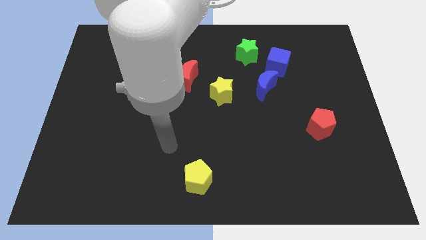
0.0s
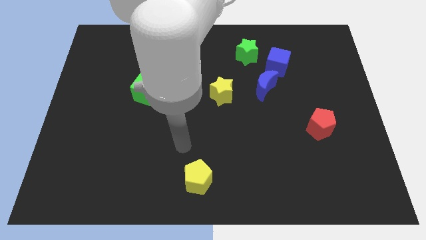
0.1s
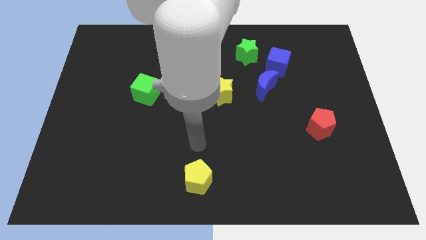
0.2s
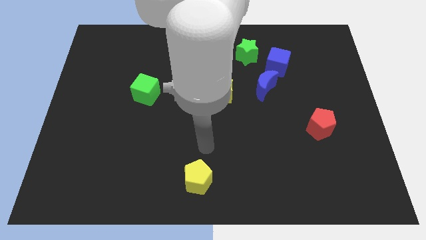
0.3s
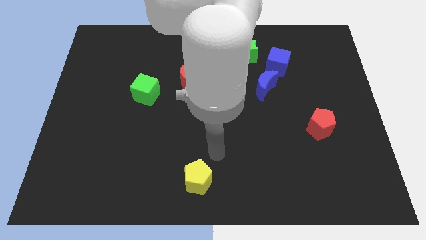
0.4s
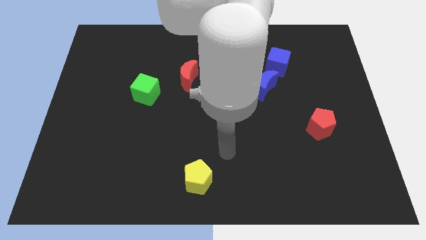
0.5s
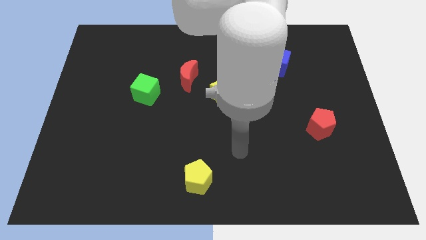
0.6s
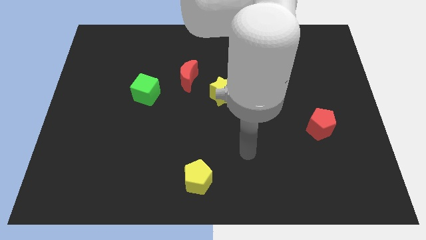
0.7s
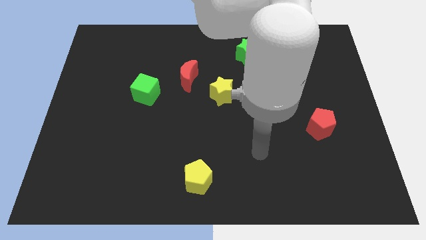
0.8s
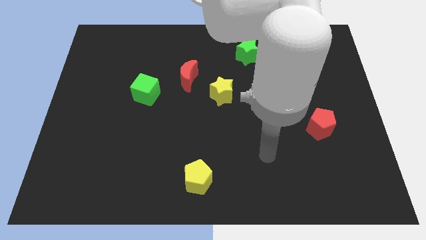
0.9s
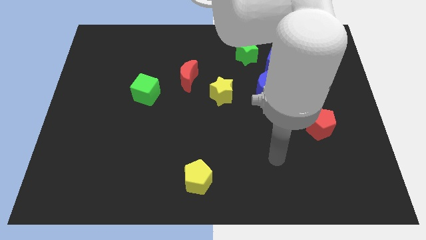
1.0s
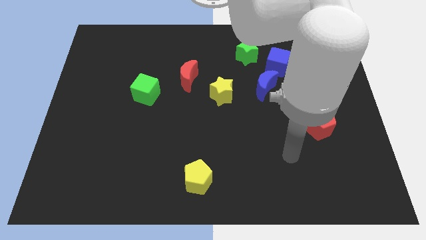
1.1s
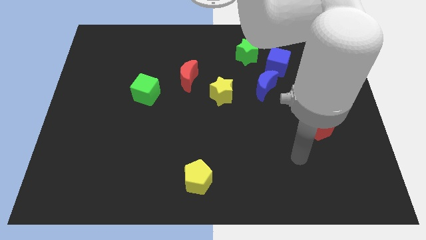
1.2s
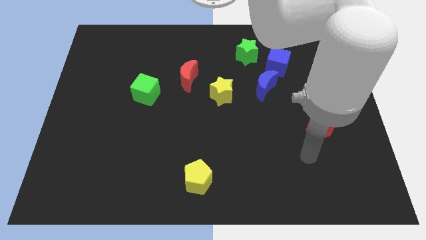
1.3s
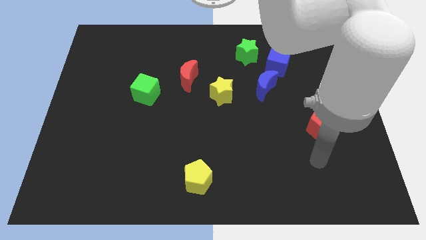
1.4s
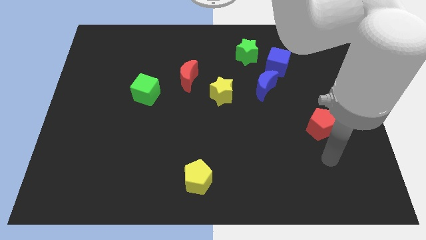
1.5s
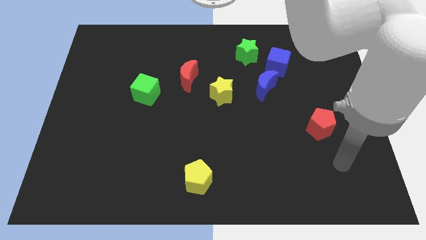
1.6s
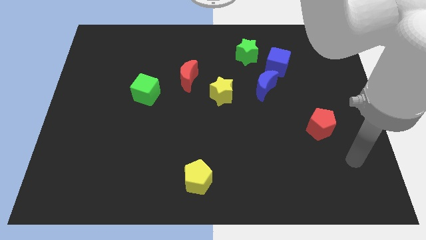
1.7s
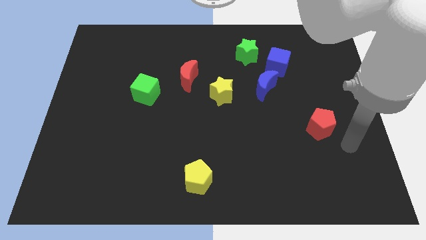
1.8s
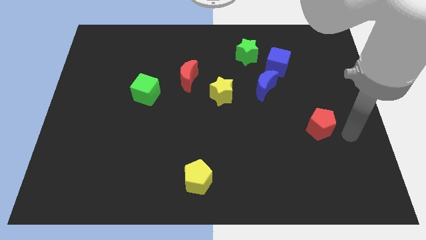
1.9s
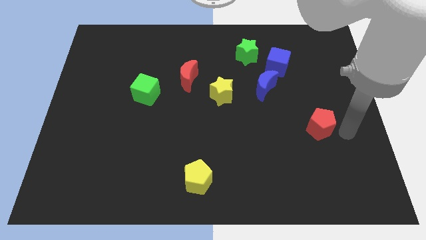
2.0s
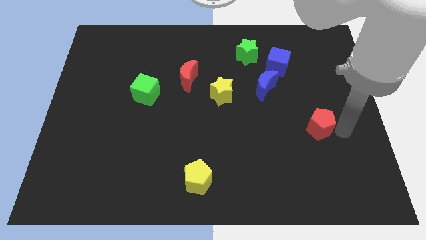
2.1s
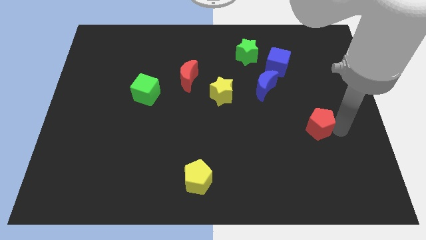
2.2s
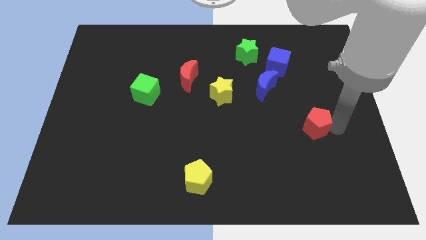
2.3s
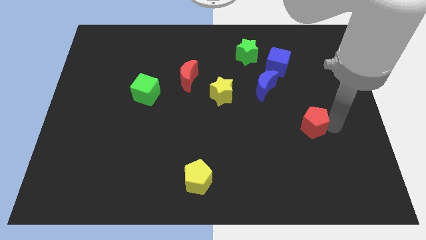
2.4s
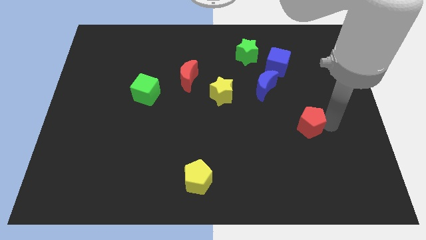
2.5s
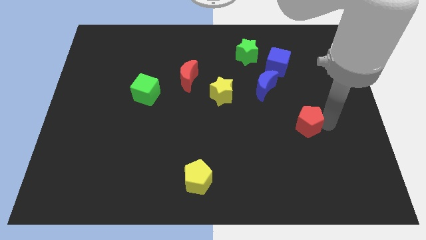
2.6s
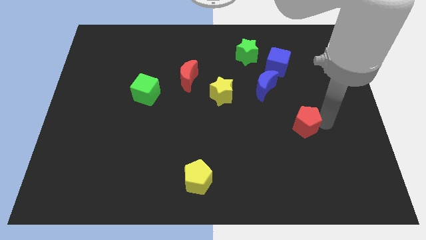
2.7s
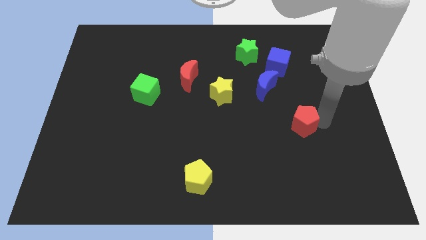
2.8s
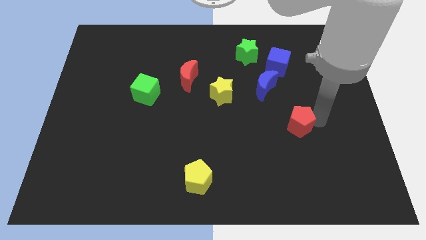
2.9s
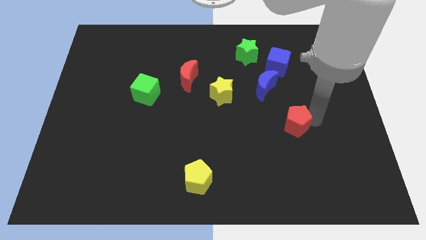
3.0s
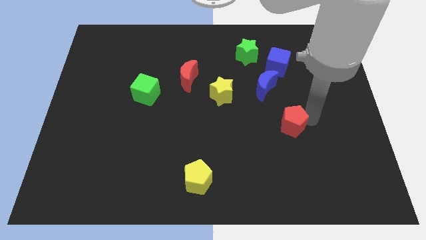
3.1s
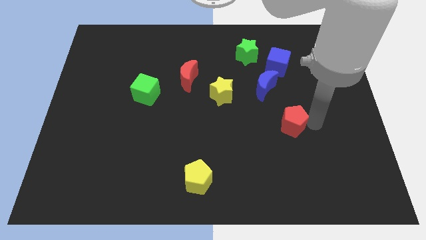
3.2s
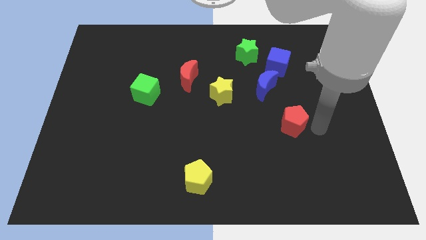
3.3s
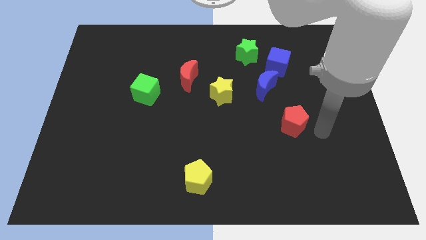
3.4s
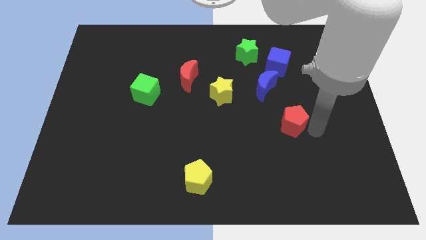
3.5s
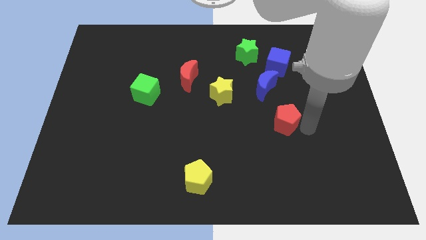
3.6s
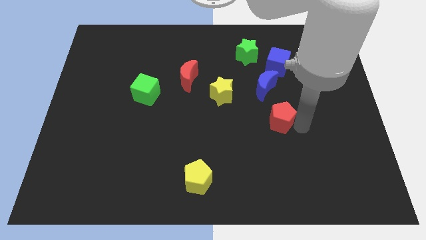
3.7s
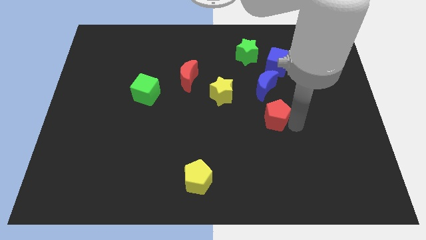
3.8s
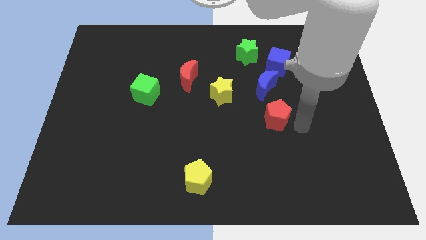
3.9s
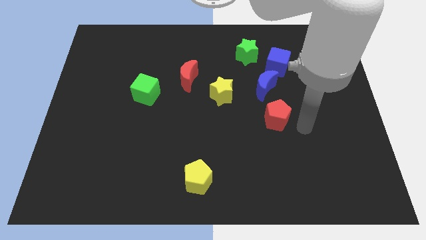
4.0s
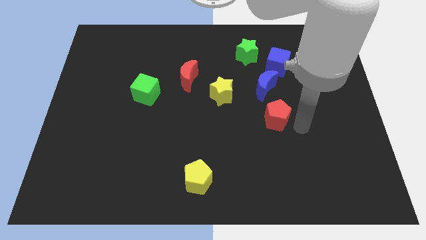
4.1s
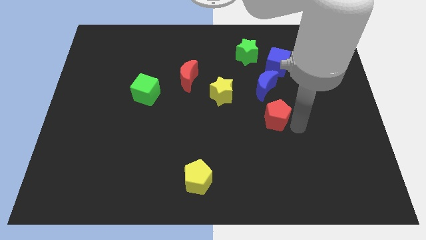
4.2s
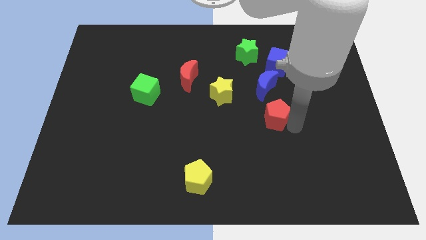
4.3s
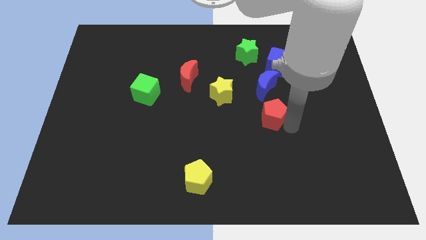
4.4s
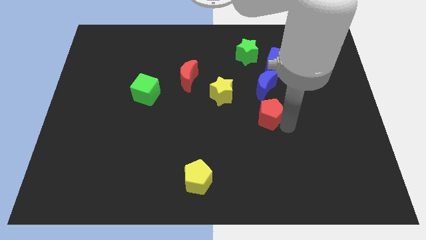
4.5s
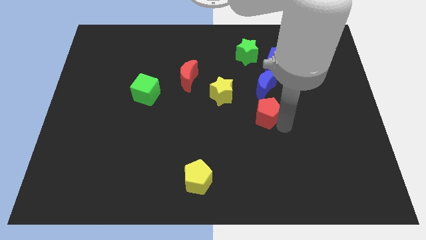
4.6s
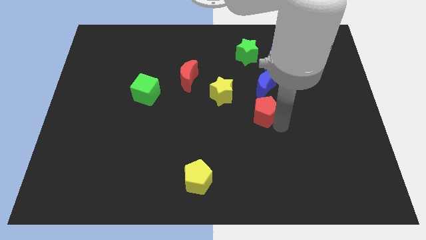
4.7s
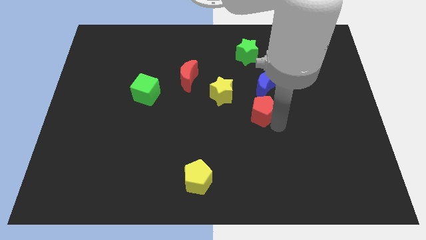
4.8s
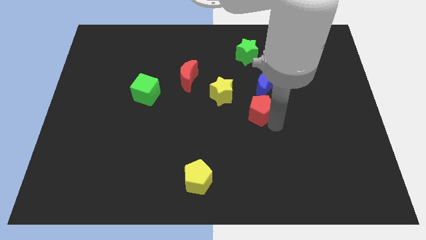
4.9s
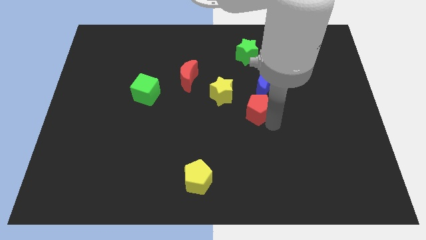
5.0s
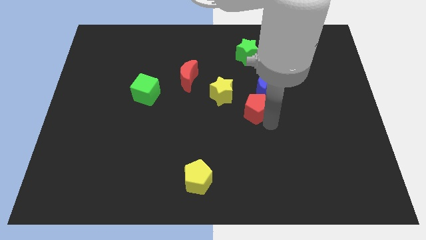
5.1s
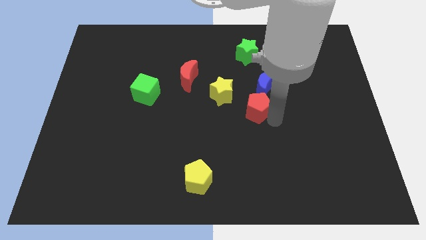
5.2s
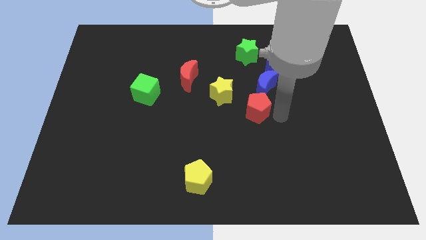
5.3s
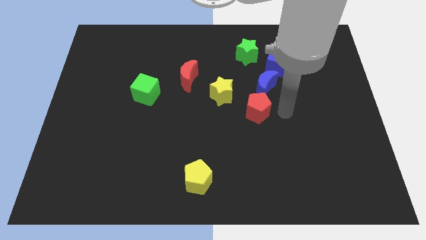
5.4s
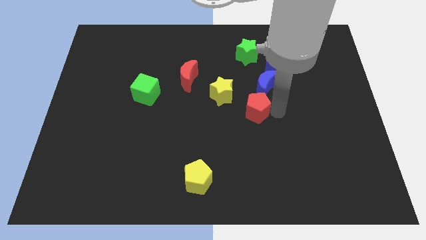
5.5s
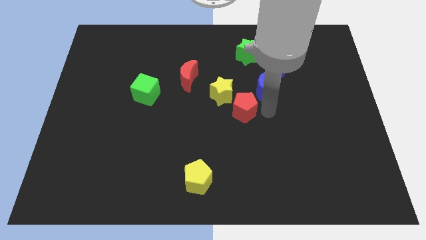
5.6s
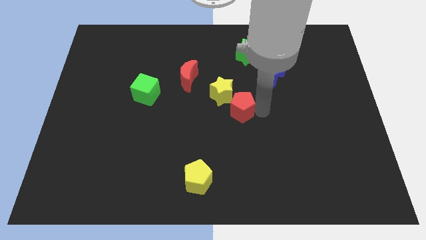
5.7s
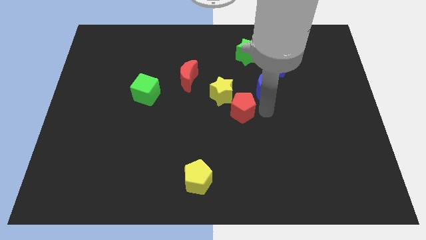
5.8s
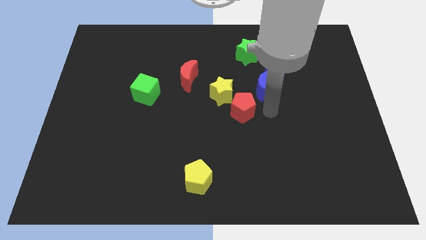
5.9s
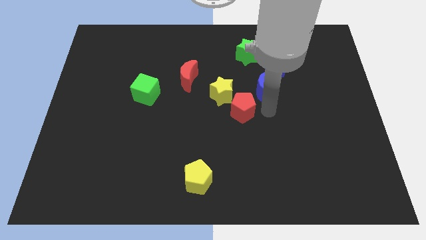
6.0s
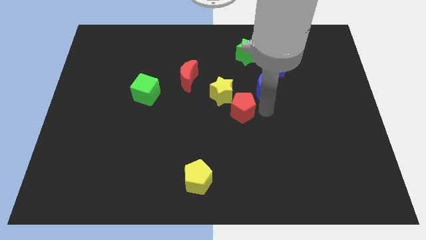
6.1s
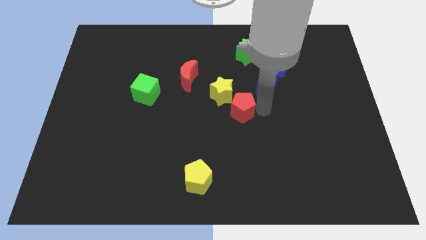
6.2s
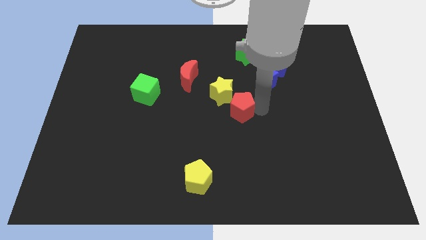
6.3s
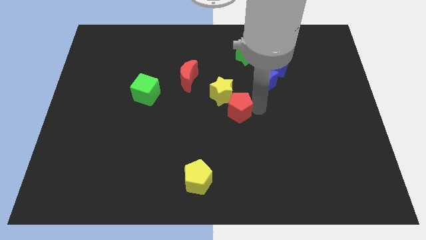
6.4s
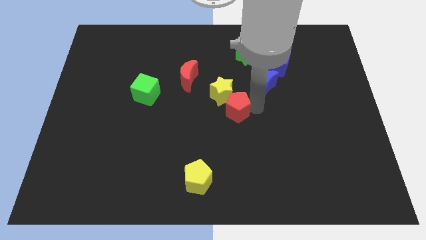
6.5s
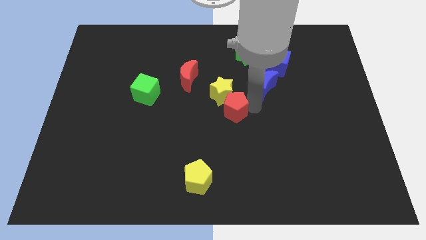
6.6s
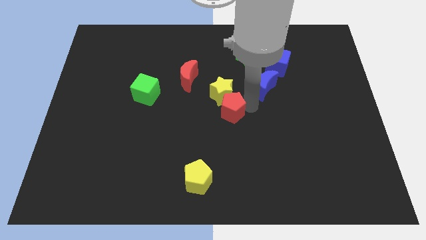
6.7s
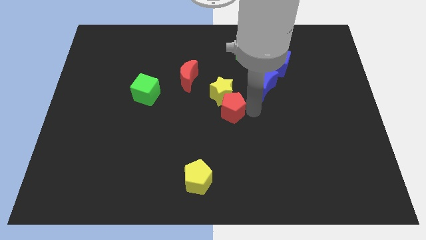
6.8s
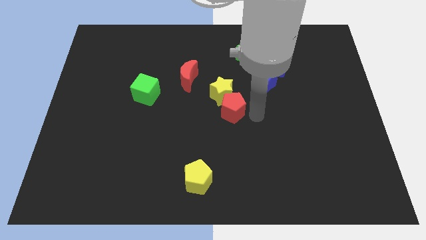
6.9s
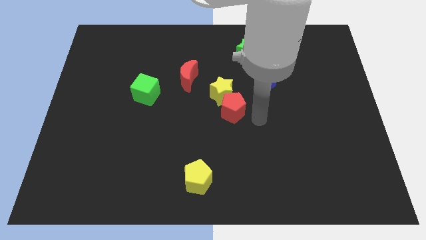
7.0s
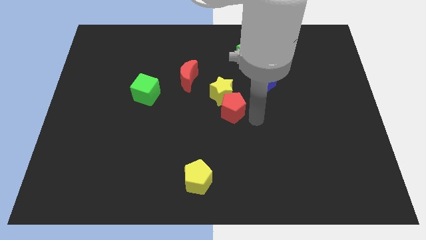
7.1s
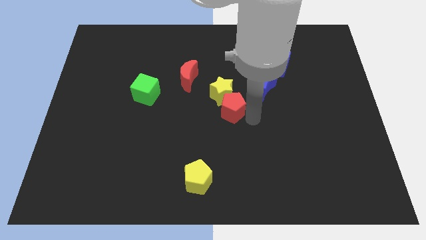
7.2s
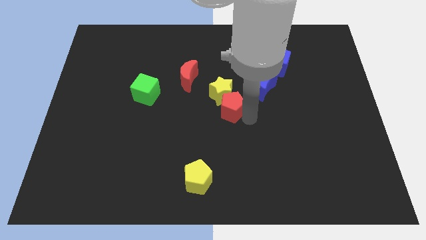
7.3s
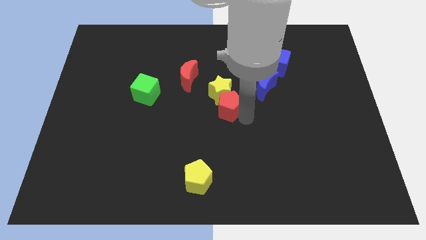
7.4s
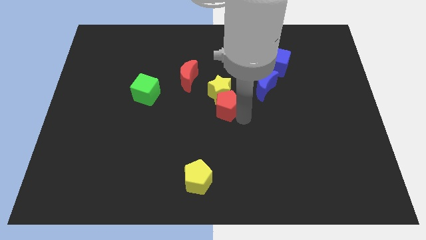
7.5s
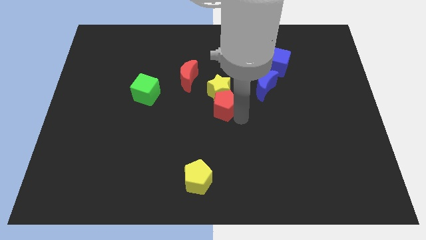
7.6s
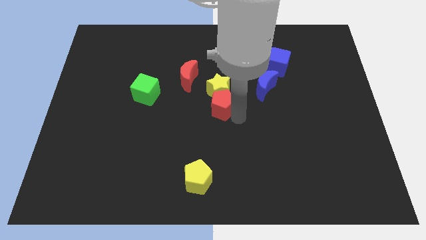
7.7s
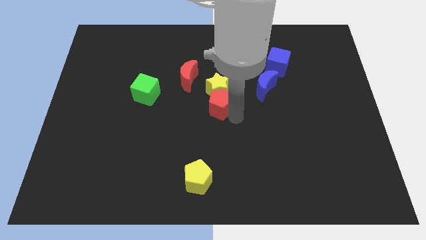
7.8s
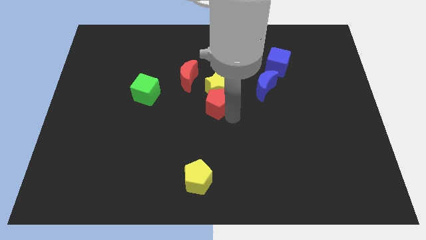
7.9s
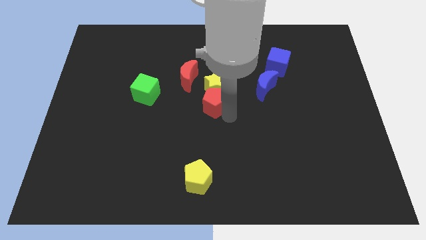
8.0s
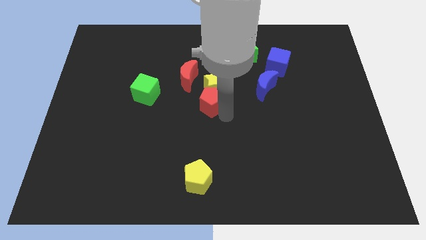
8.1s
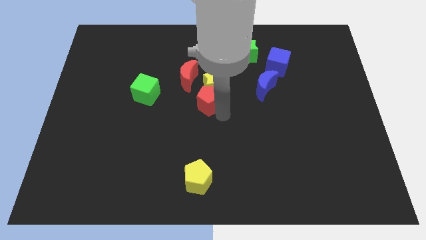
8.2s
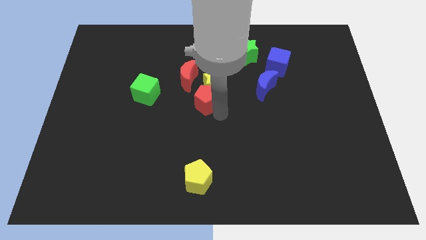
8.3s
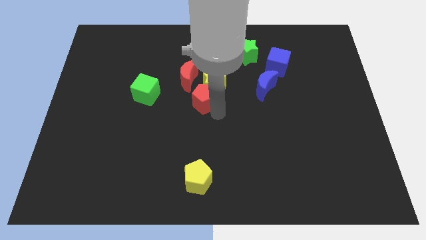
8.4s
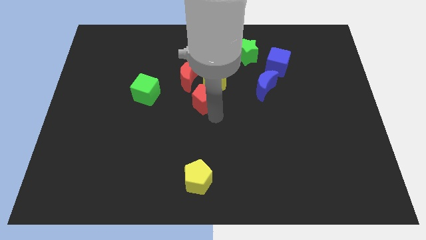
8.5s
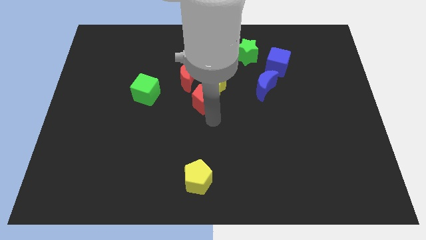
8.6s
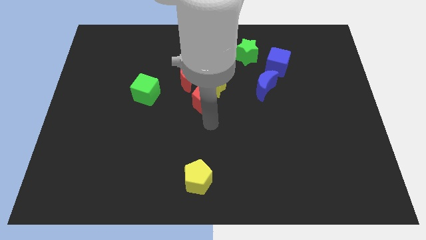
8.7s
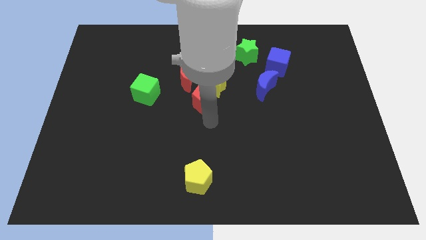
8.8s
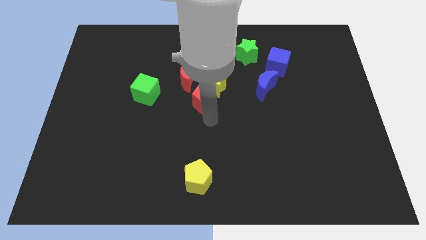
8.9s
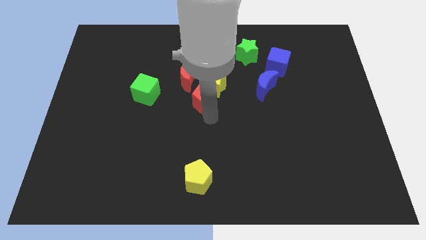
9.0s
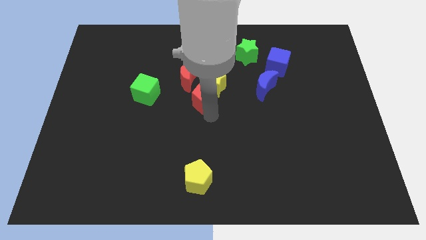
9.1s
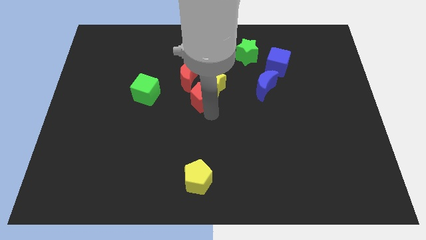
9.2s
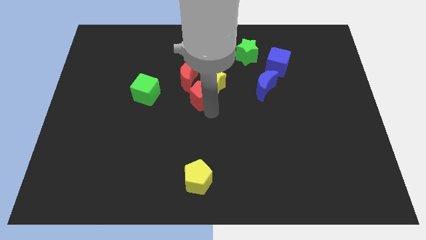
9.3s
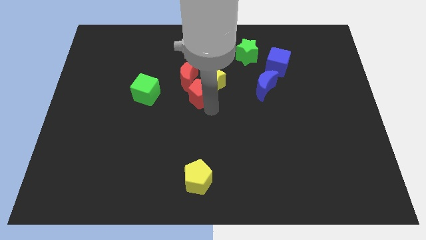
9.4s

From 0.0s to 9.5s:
put the red pentagon to the left side of the blue moon
